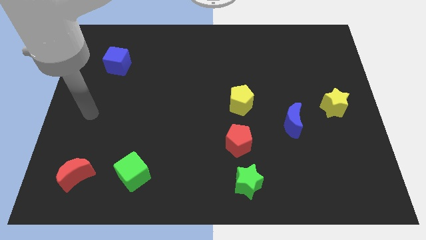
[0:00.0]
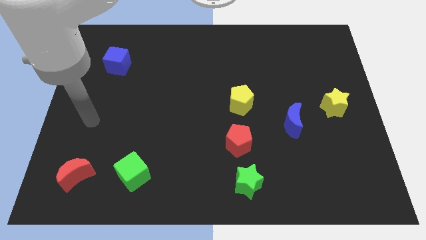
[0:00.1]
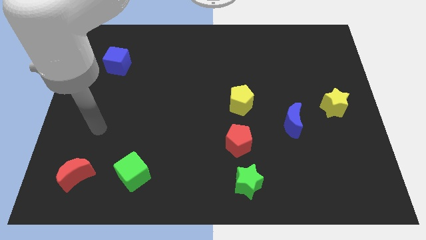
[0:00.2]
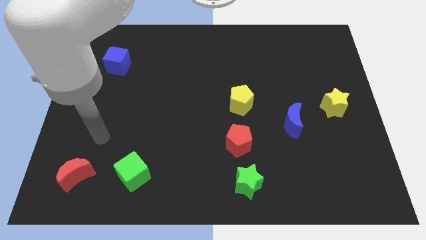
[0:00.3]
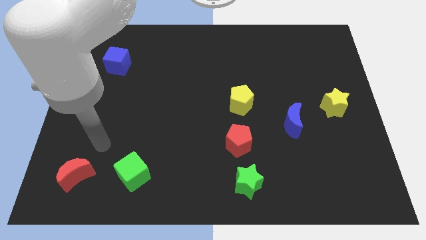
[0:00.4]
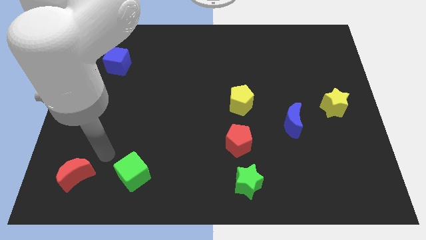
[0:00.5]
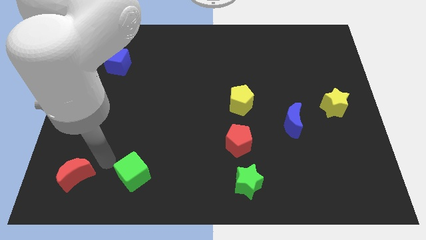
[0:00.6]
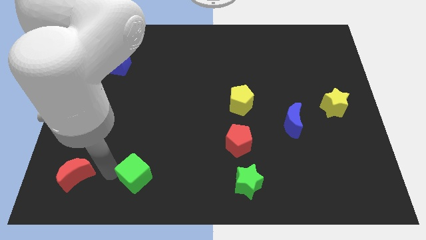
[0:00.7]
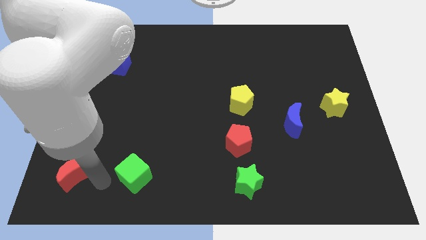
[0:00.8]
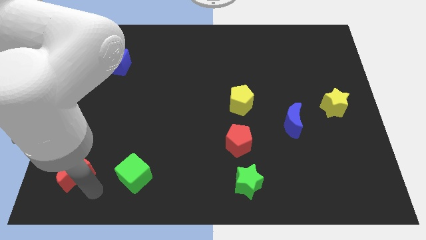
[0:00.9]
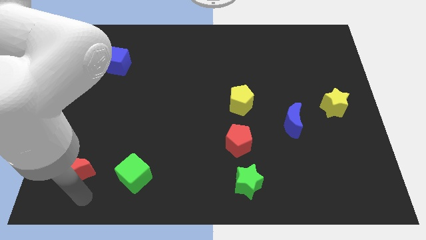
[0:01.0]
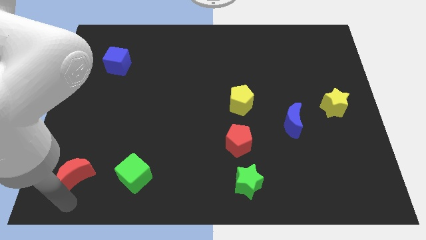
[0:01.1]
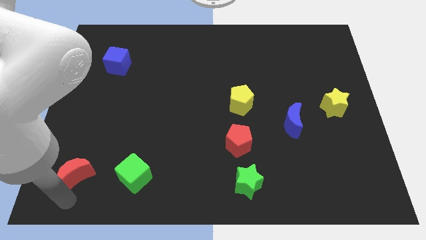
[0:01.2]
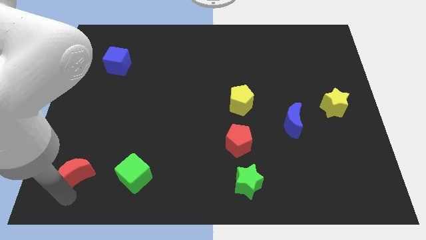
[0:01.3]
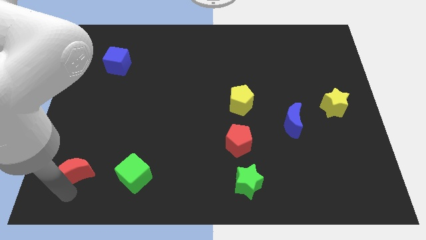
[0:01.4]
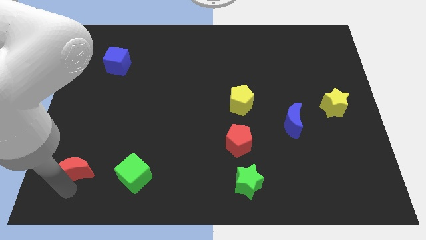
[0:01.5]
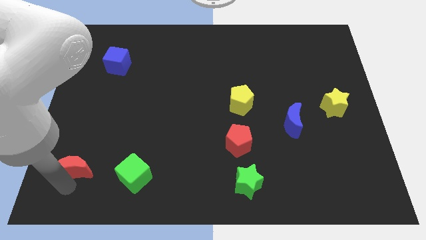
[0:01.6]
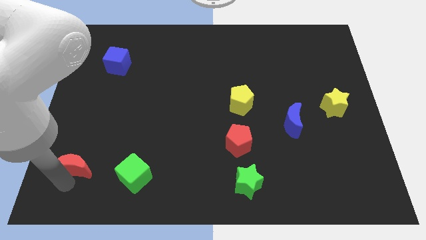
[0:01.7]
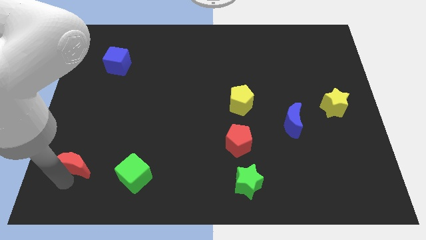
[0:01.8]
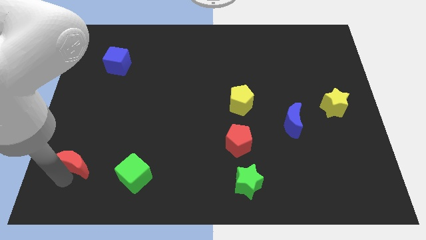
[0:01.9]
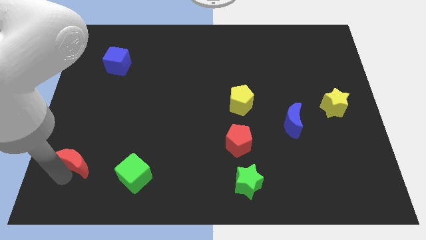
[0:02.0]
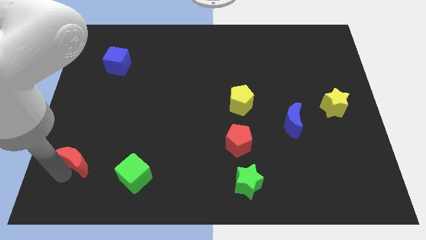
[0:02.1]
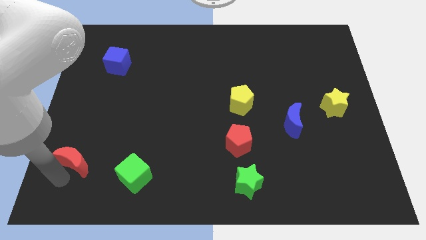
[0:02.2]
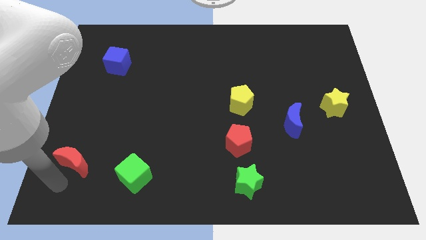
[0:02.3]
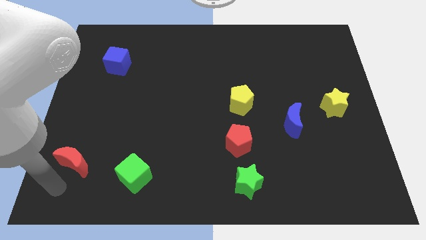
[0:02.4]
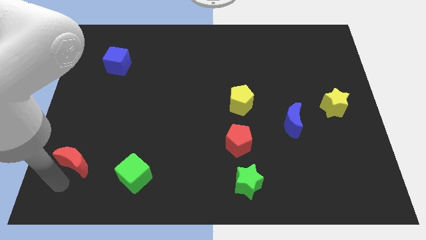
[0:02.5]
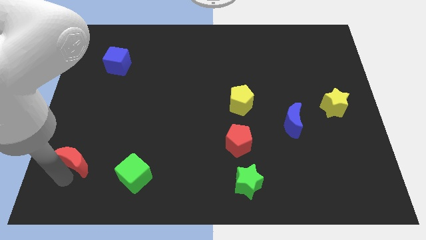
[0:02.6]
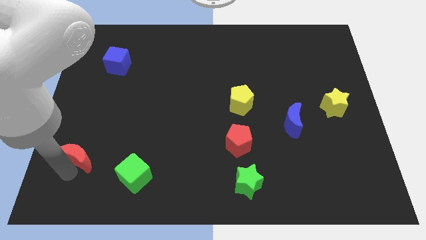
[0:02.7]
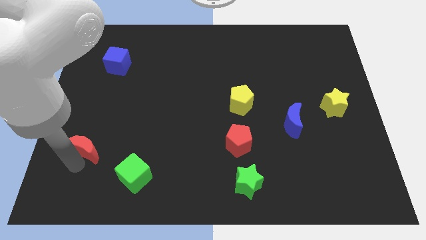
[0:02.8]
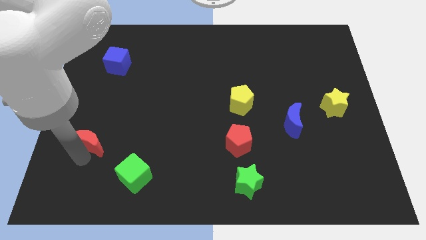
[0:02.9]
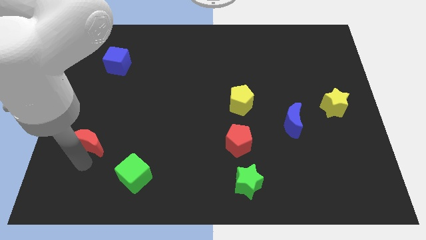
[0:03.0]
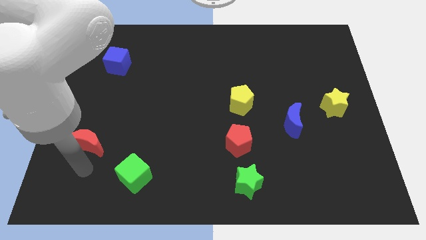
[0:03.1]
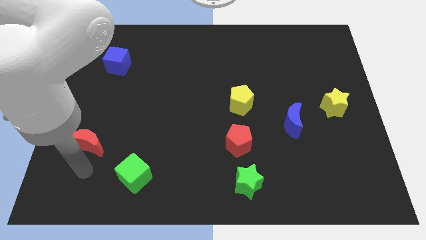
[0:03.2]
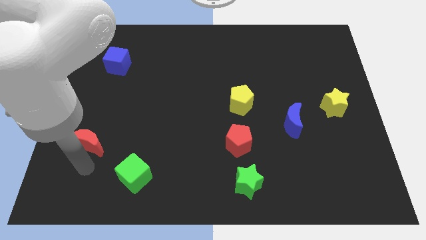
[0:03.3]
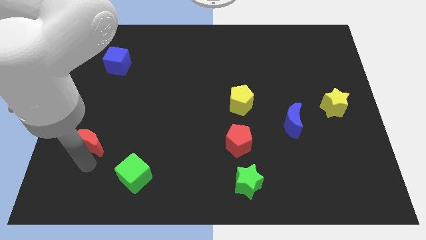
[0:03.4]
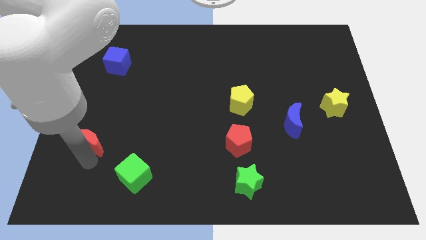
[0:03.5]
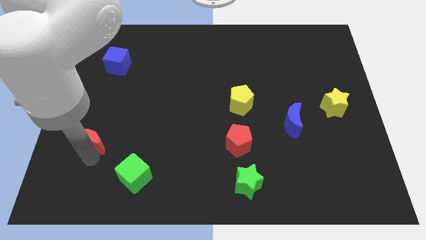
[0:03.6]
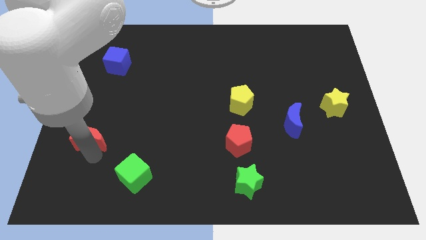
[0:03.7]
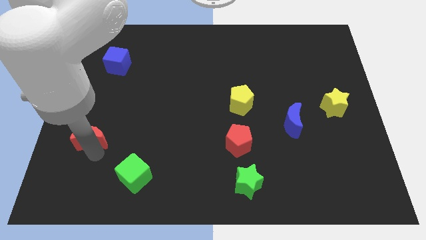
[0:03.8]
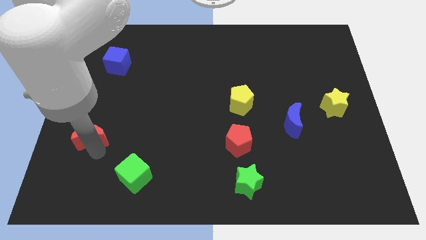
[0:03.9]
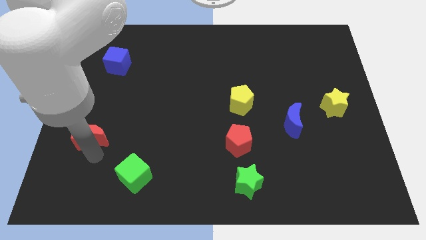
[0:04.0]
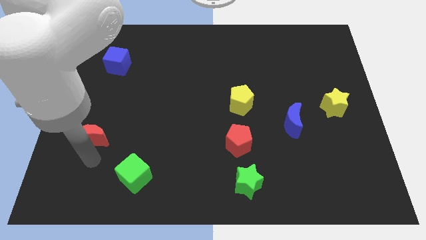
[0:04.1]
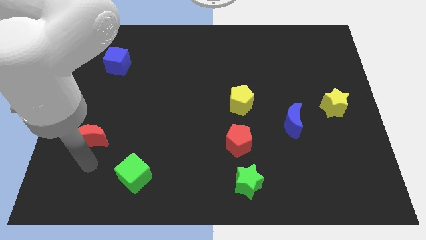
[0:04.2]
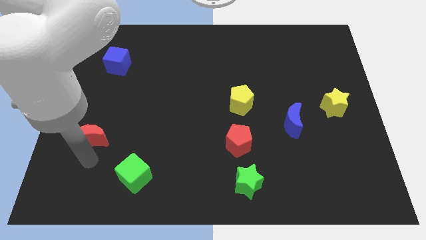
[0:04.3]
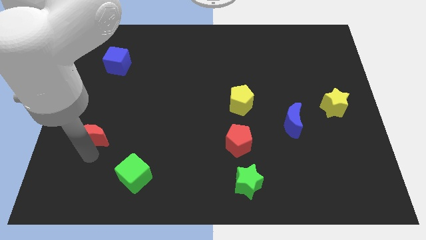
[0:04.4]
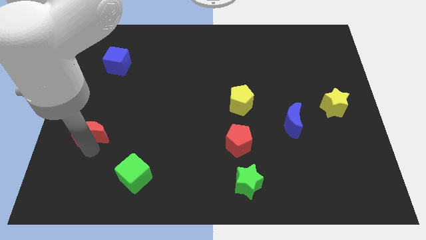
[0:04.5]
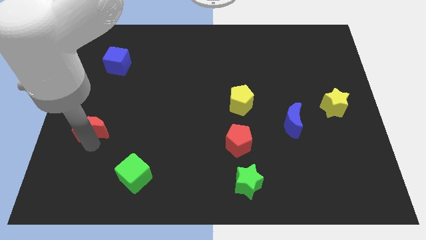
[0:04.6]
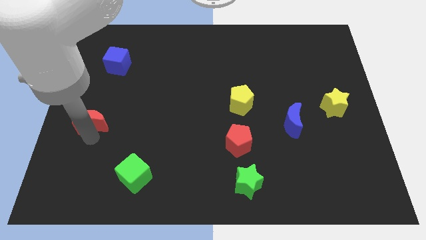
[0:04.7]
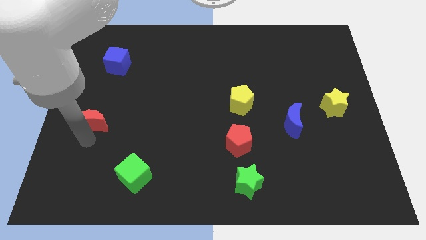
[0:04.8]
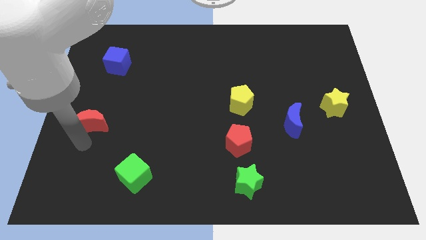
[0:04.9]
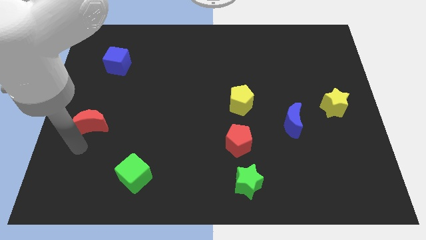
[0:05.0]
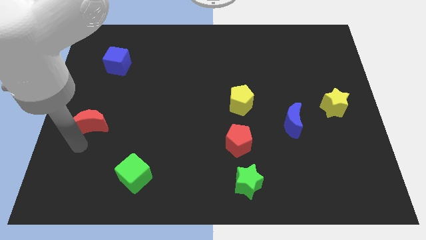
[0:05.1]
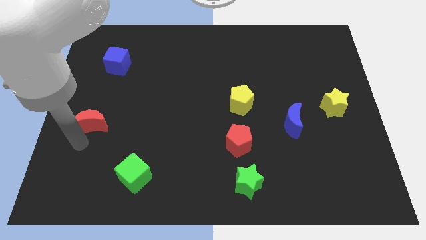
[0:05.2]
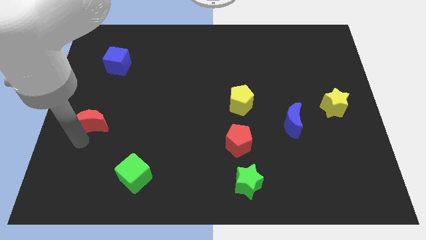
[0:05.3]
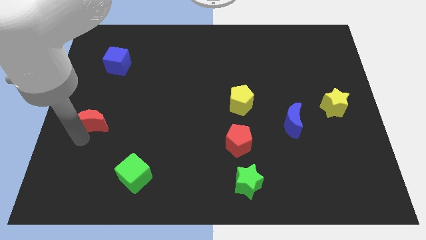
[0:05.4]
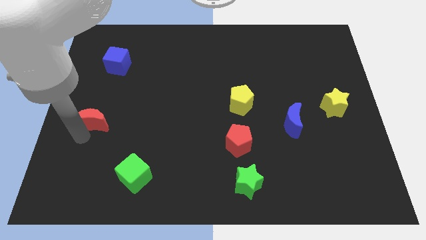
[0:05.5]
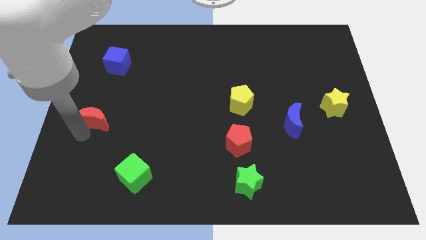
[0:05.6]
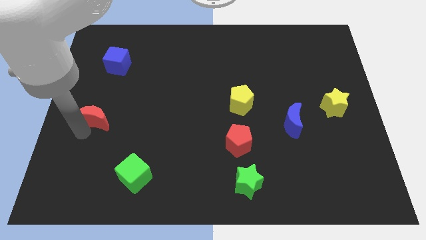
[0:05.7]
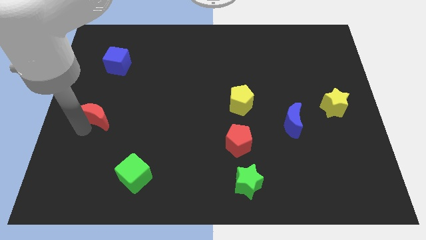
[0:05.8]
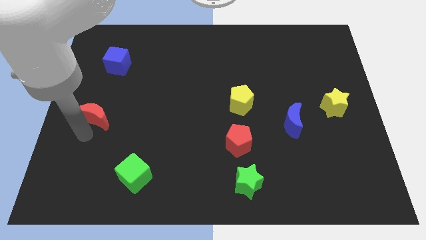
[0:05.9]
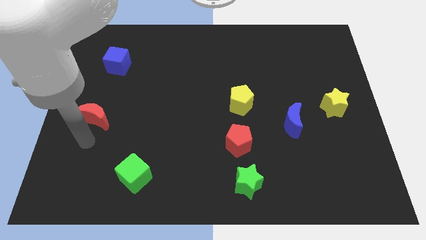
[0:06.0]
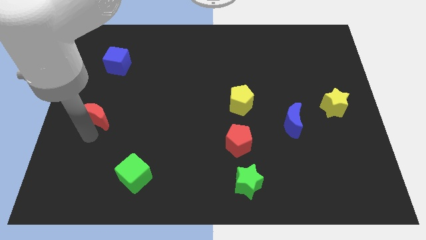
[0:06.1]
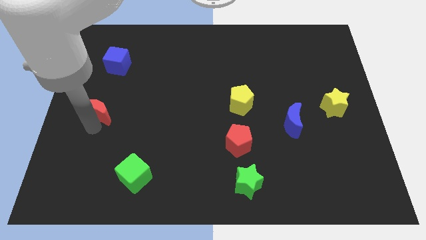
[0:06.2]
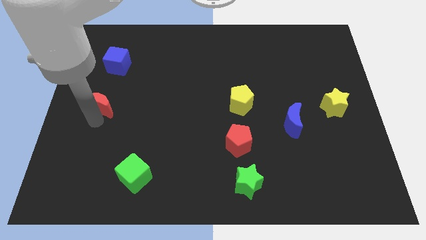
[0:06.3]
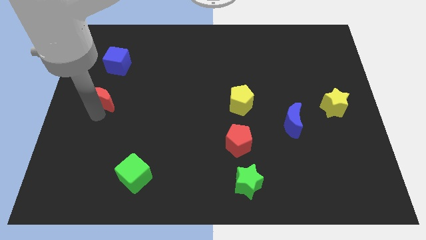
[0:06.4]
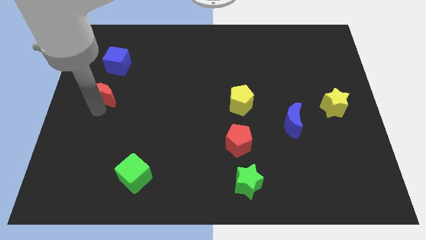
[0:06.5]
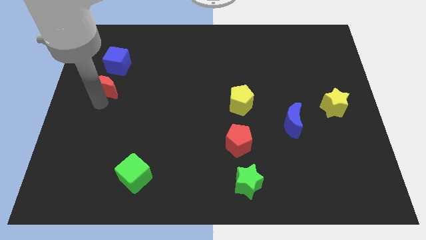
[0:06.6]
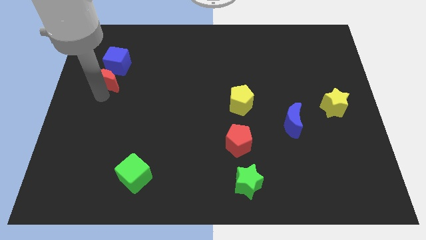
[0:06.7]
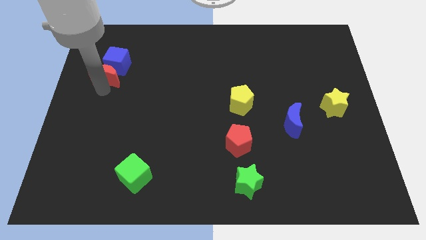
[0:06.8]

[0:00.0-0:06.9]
put the red moon to the blue cube

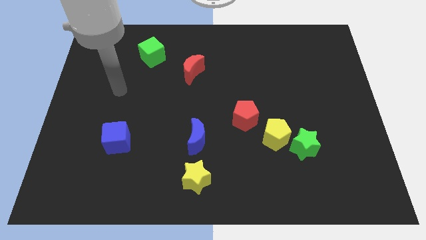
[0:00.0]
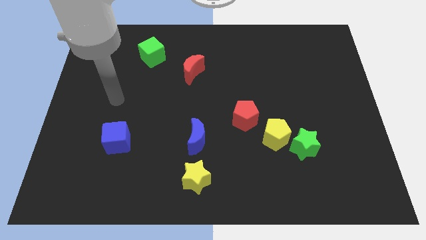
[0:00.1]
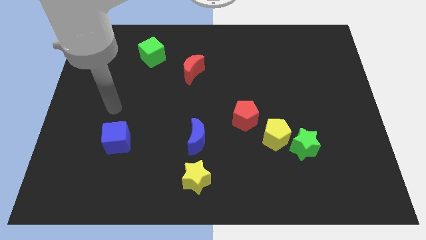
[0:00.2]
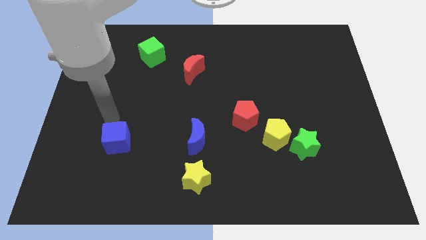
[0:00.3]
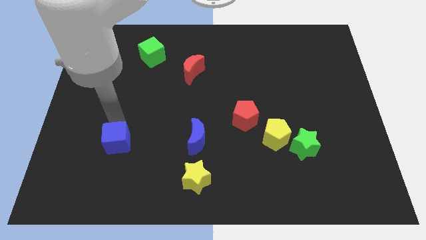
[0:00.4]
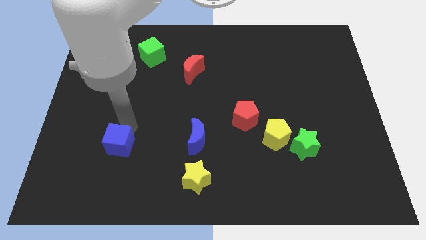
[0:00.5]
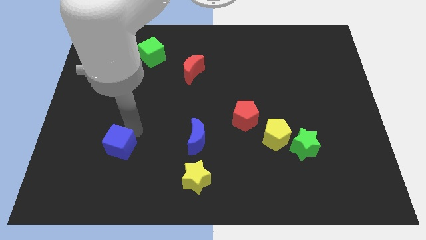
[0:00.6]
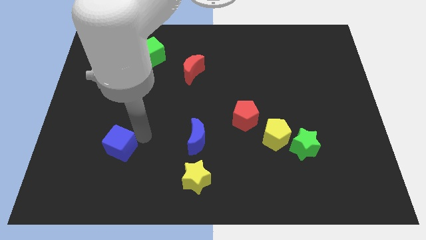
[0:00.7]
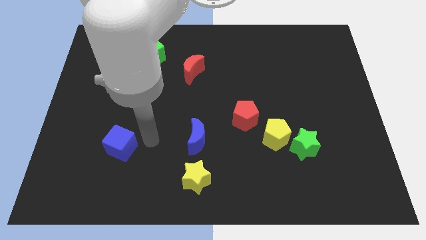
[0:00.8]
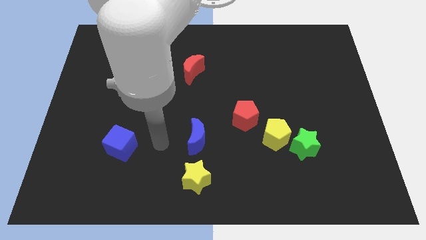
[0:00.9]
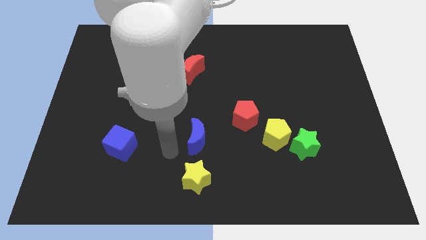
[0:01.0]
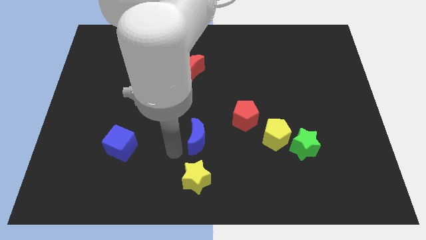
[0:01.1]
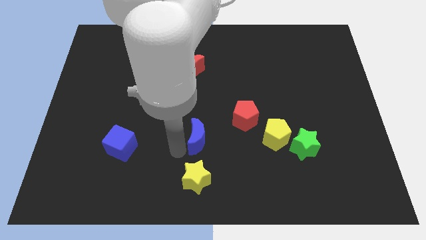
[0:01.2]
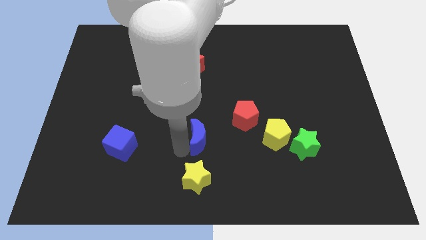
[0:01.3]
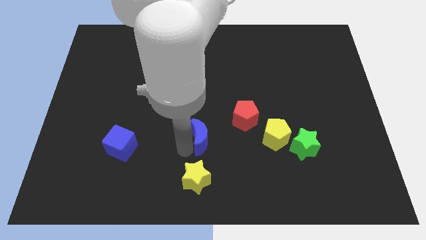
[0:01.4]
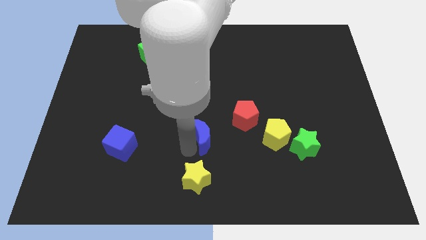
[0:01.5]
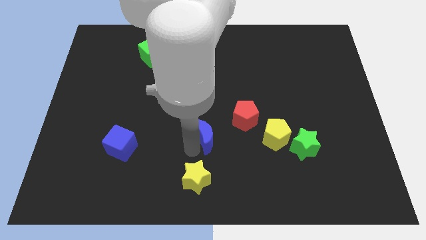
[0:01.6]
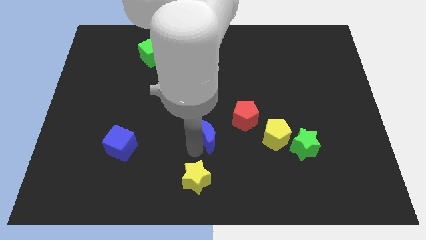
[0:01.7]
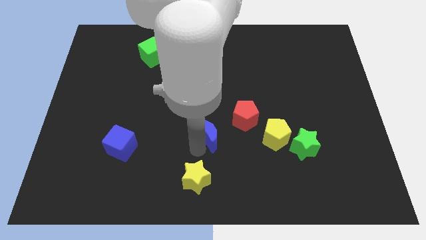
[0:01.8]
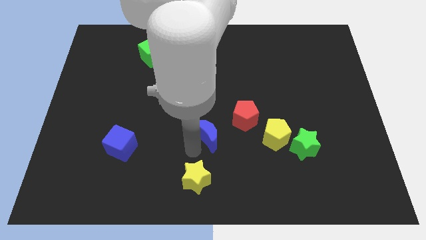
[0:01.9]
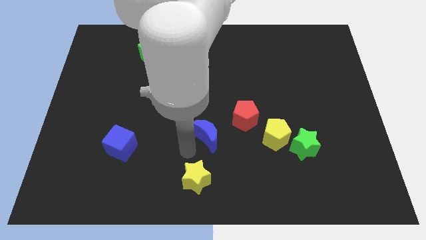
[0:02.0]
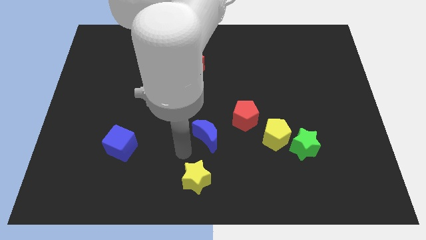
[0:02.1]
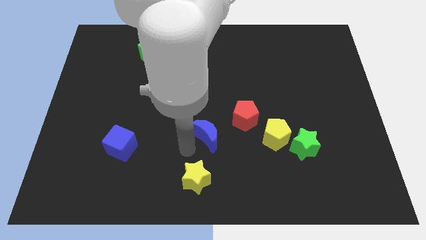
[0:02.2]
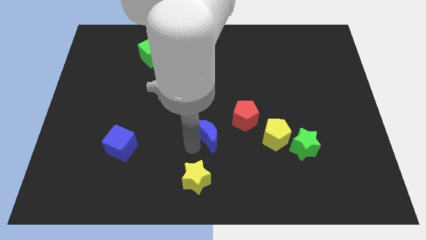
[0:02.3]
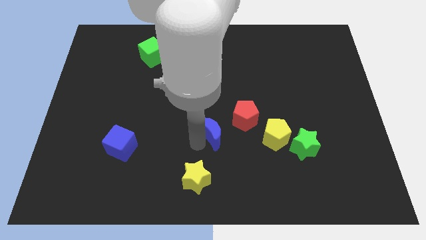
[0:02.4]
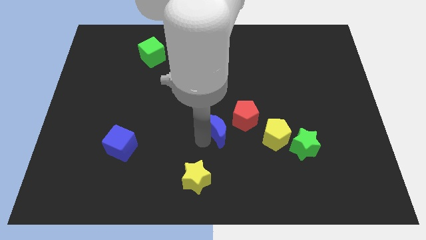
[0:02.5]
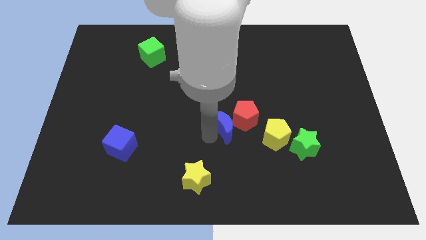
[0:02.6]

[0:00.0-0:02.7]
move the blue moon next to the red pentagon
